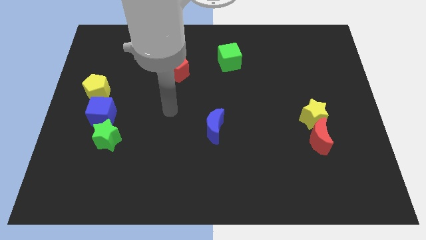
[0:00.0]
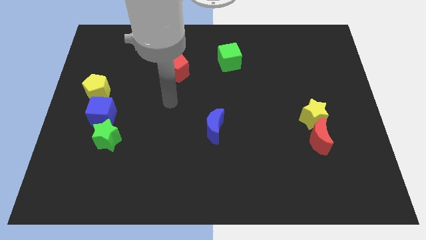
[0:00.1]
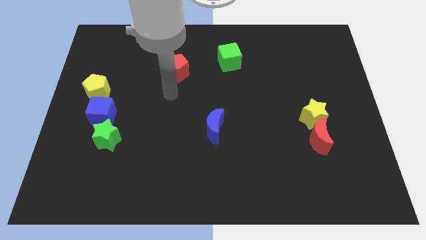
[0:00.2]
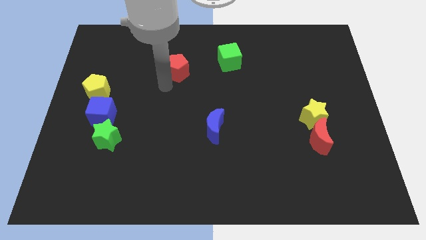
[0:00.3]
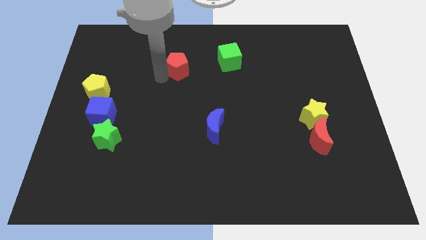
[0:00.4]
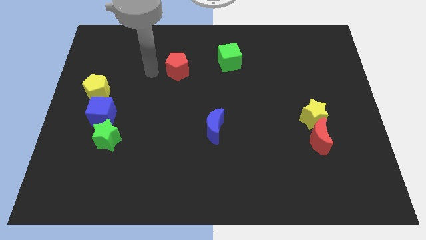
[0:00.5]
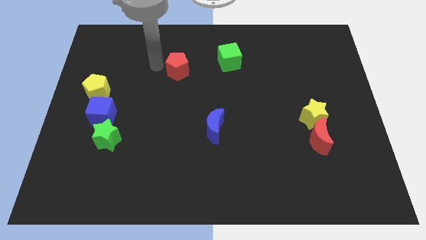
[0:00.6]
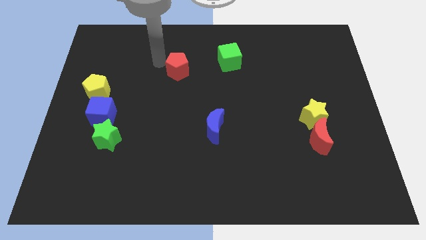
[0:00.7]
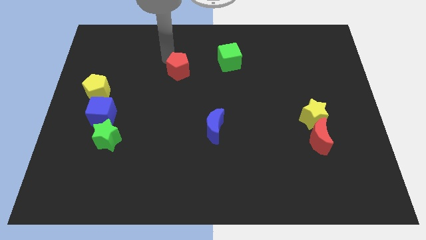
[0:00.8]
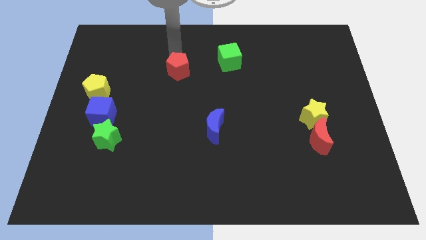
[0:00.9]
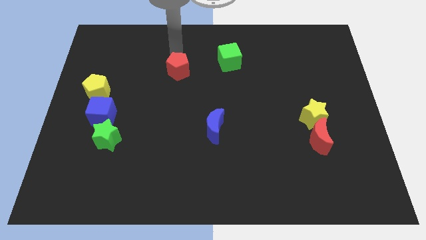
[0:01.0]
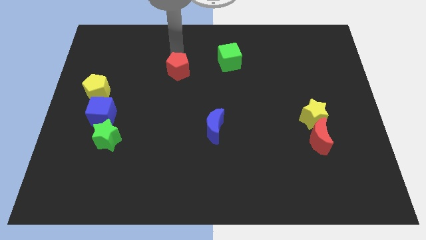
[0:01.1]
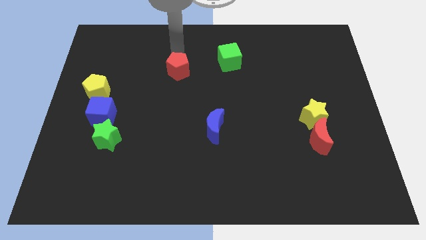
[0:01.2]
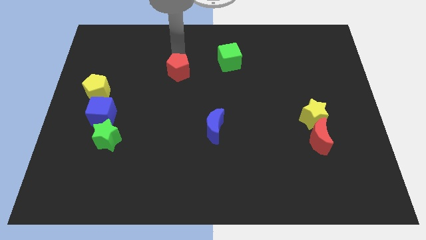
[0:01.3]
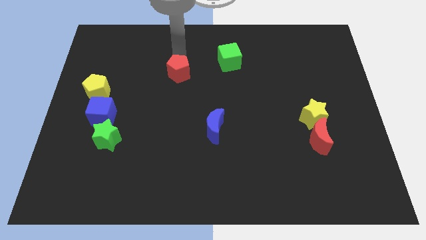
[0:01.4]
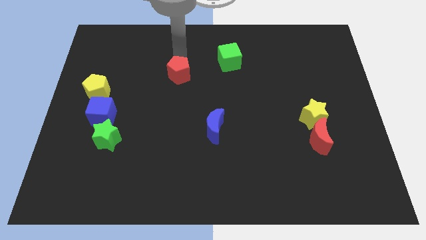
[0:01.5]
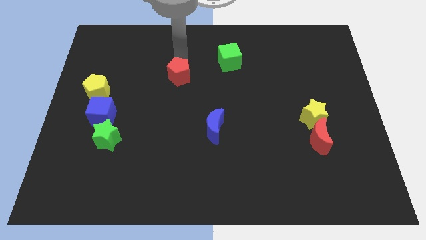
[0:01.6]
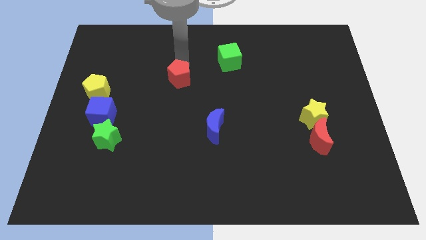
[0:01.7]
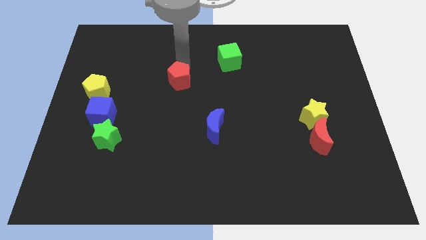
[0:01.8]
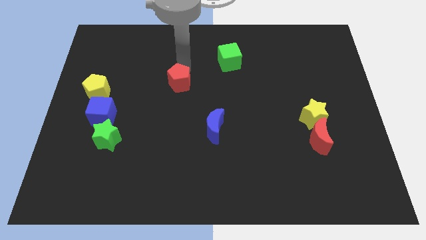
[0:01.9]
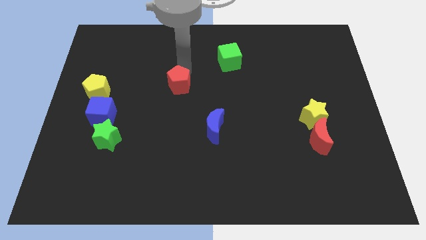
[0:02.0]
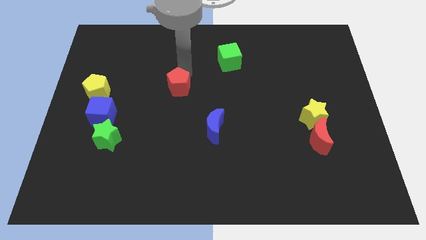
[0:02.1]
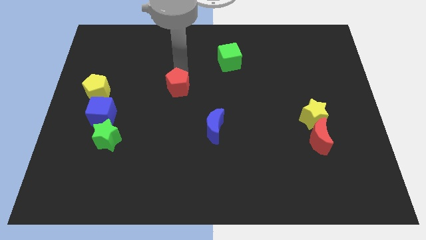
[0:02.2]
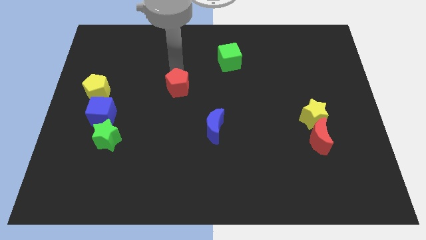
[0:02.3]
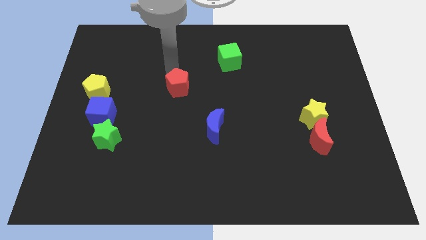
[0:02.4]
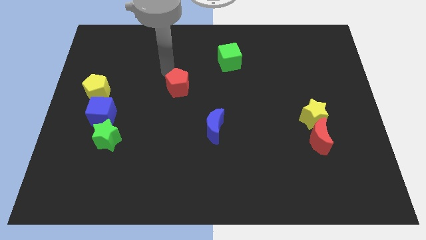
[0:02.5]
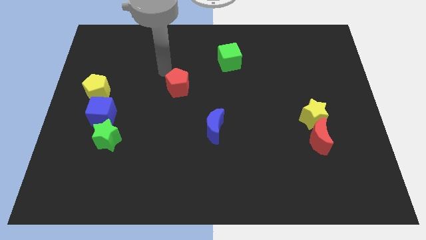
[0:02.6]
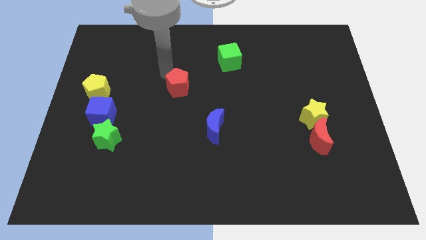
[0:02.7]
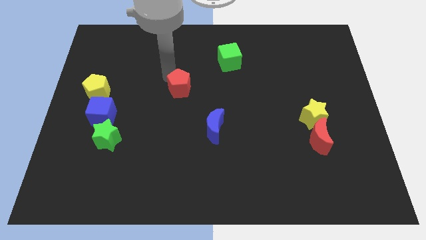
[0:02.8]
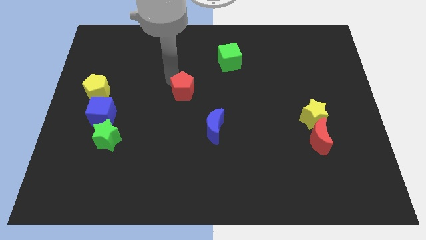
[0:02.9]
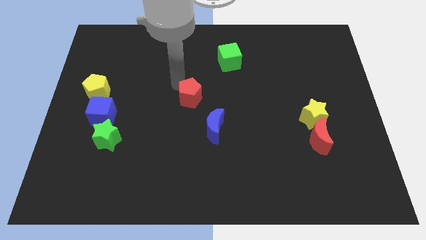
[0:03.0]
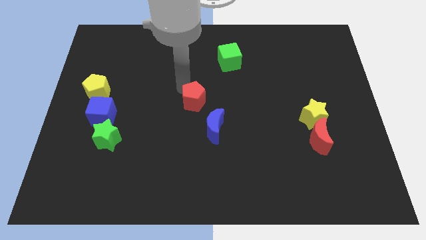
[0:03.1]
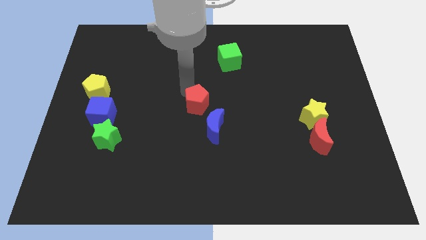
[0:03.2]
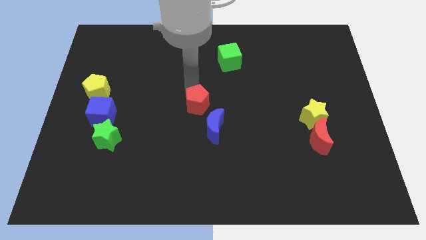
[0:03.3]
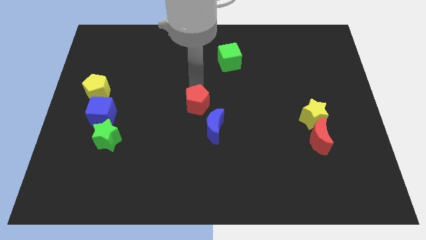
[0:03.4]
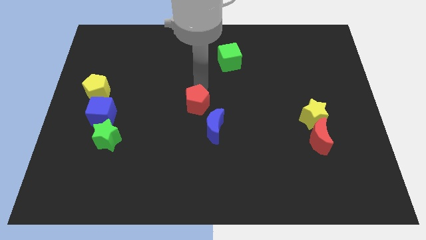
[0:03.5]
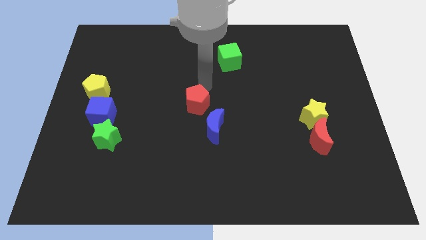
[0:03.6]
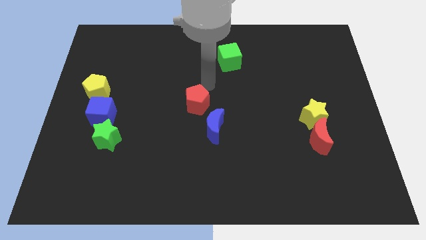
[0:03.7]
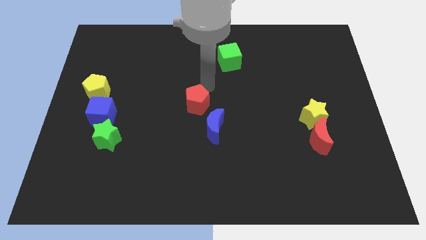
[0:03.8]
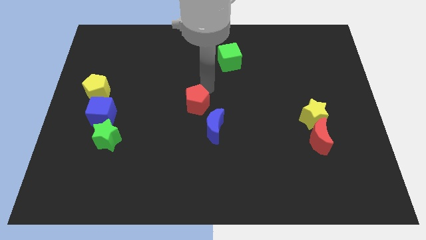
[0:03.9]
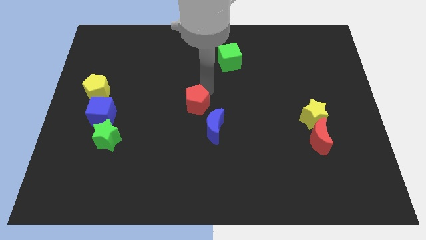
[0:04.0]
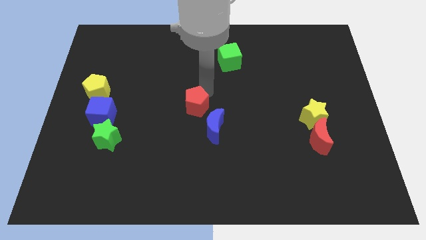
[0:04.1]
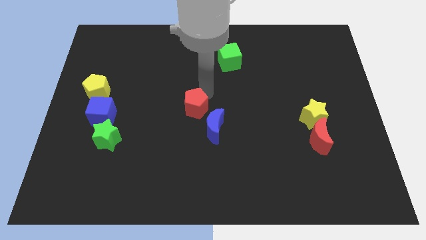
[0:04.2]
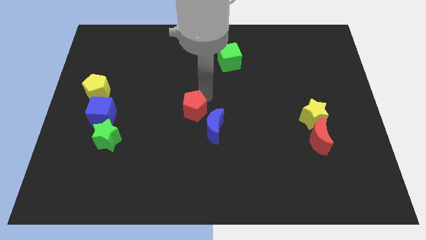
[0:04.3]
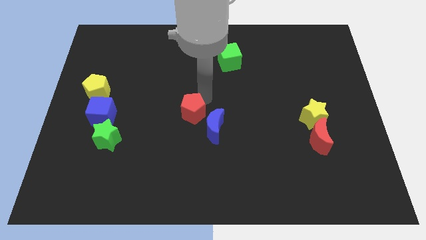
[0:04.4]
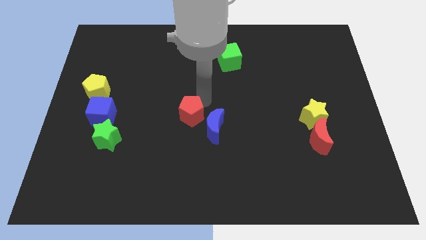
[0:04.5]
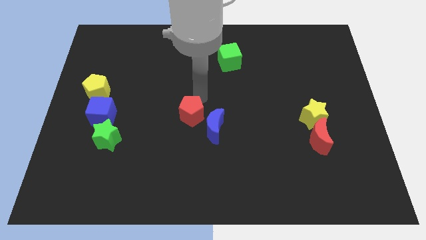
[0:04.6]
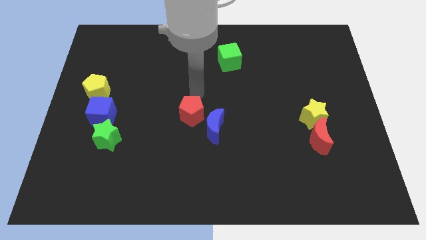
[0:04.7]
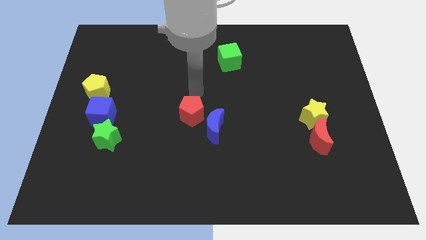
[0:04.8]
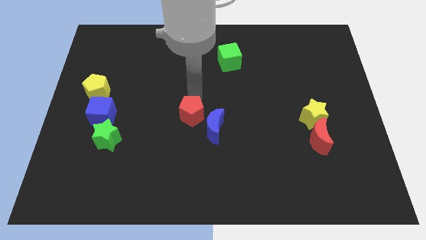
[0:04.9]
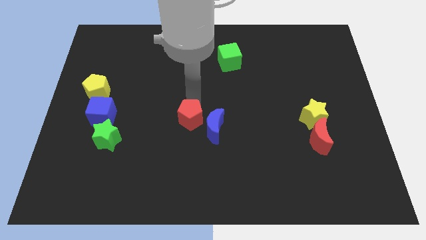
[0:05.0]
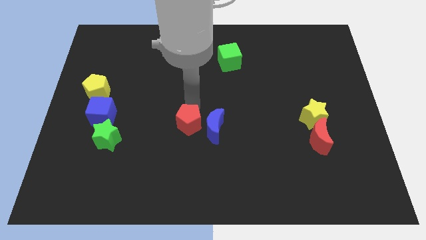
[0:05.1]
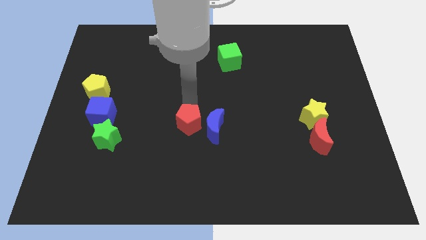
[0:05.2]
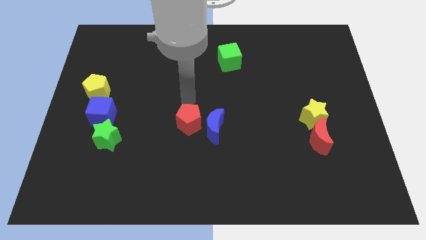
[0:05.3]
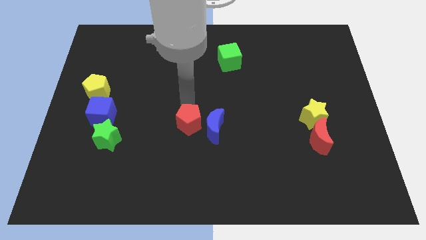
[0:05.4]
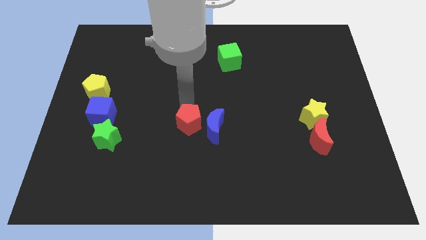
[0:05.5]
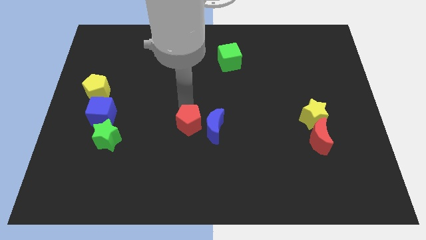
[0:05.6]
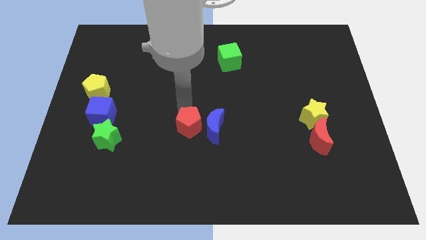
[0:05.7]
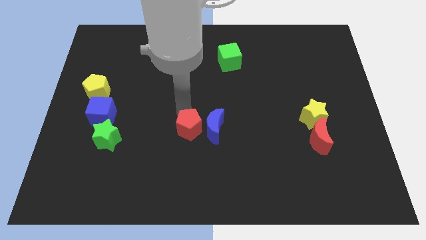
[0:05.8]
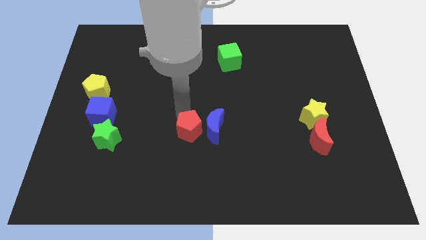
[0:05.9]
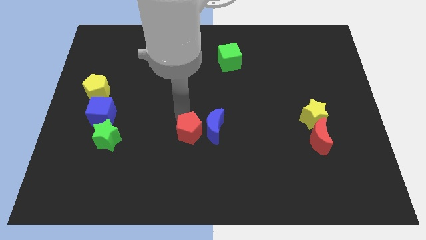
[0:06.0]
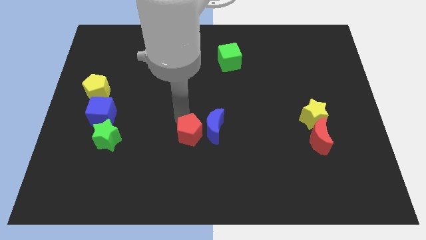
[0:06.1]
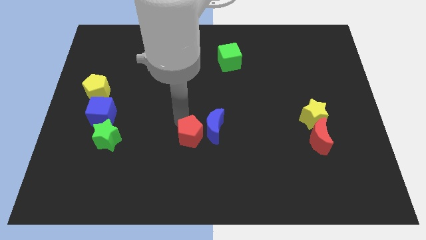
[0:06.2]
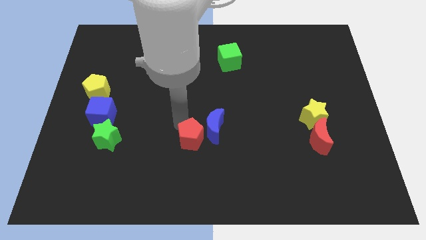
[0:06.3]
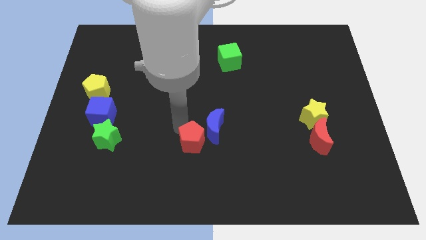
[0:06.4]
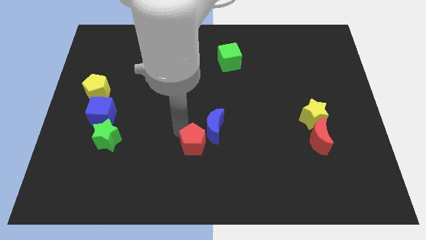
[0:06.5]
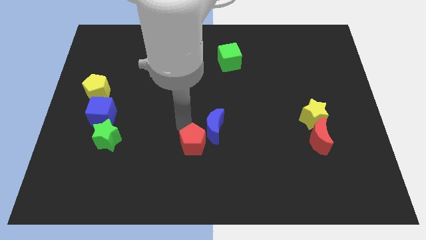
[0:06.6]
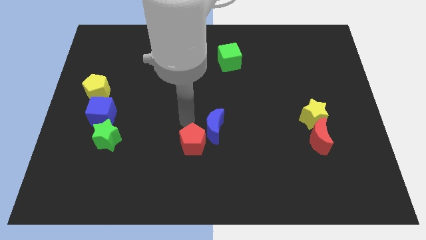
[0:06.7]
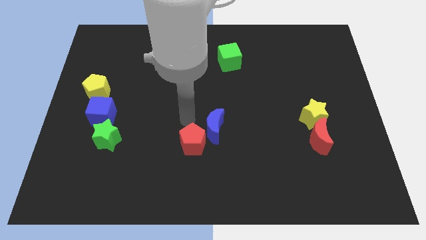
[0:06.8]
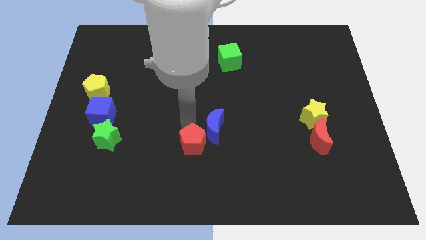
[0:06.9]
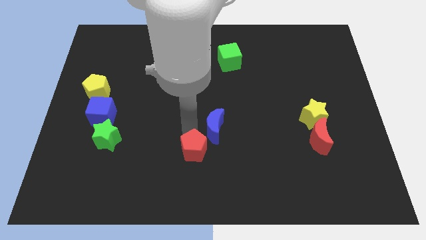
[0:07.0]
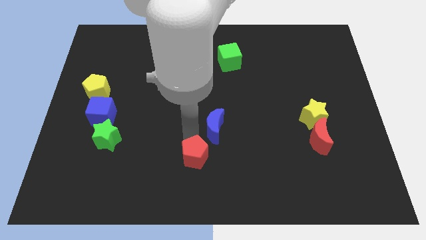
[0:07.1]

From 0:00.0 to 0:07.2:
move the red pentagon to the bottom
